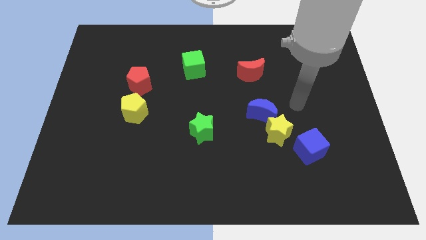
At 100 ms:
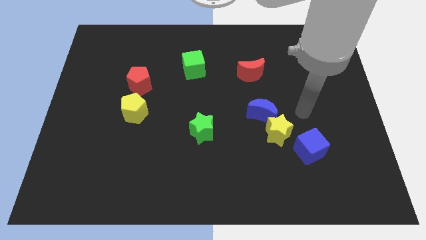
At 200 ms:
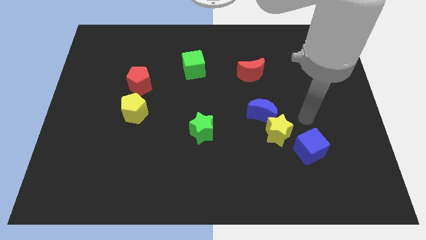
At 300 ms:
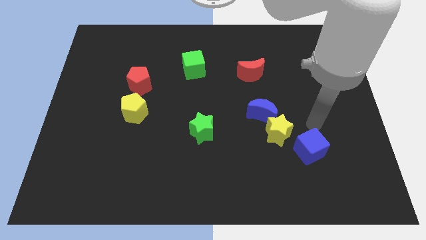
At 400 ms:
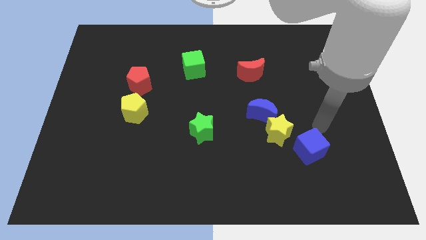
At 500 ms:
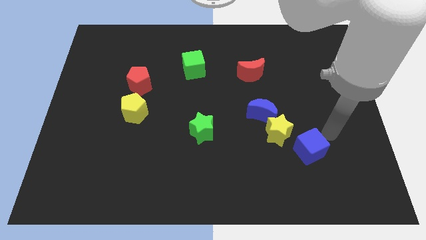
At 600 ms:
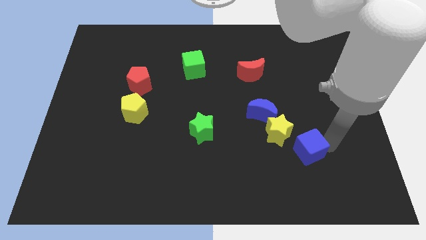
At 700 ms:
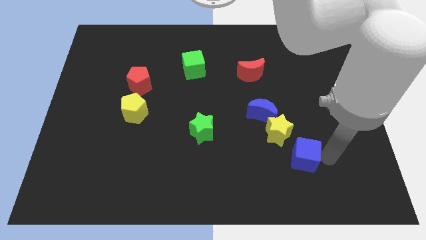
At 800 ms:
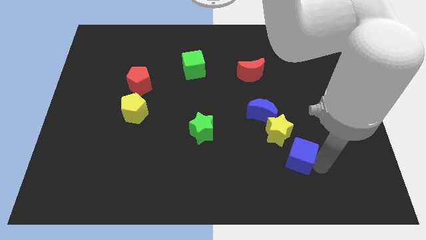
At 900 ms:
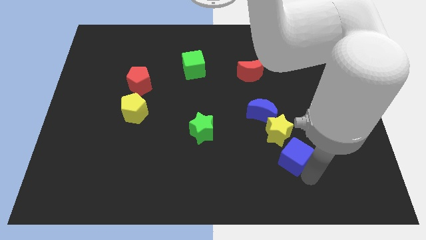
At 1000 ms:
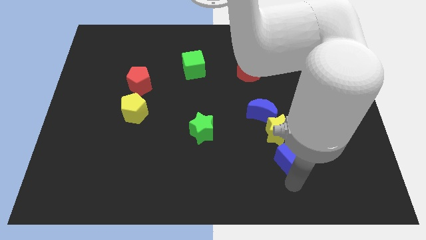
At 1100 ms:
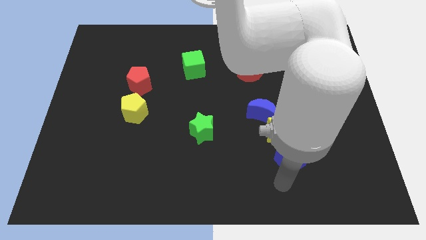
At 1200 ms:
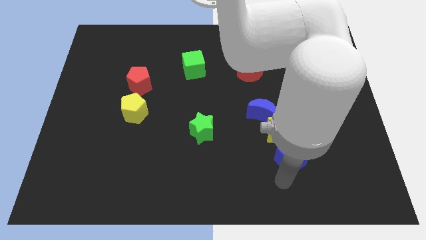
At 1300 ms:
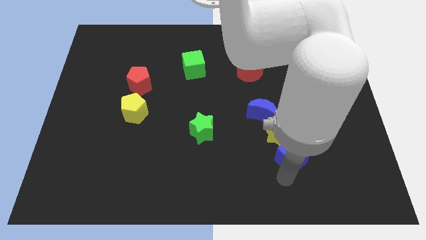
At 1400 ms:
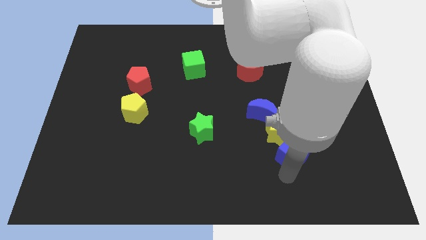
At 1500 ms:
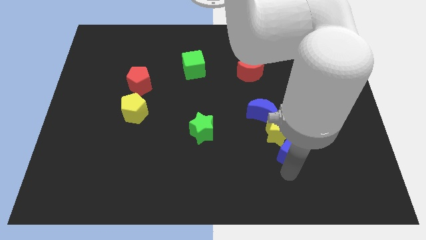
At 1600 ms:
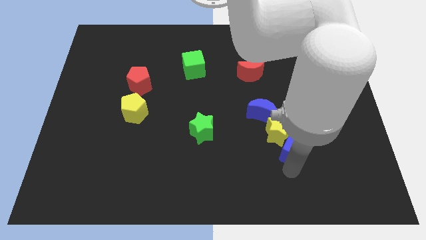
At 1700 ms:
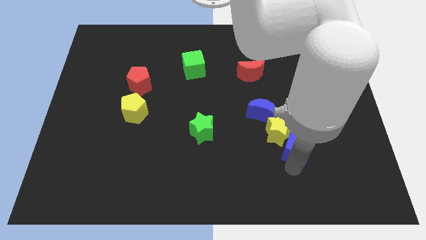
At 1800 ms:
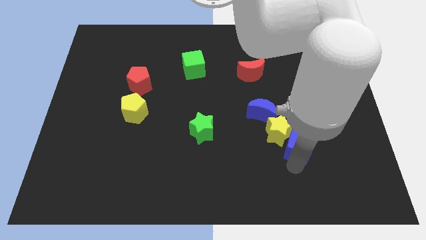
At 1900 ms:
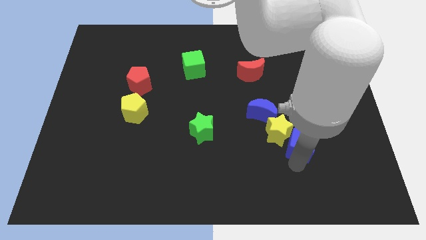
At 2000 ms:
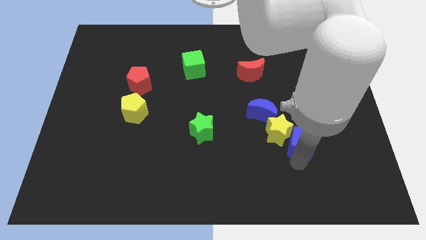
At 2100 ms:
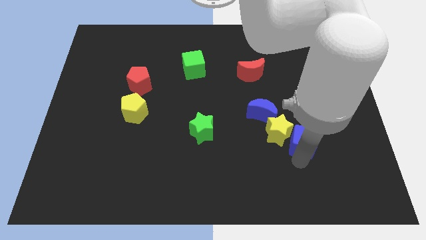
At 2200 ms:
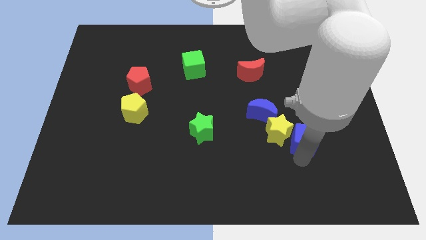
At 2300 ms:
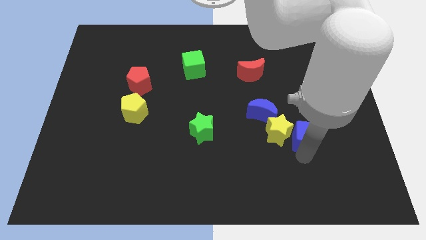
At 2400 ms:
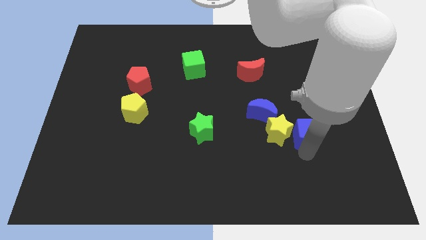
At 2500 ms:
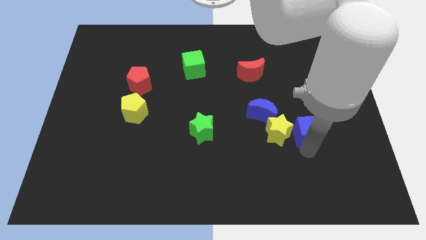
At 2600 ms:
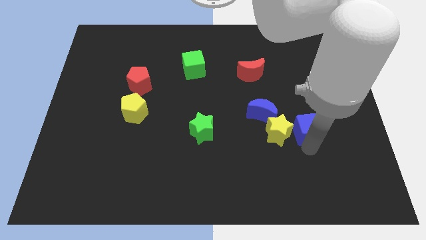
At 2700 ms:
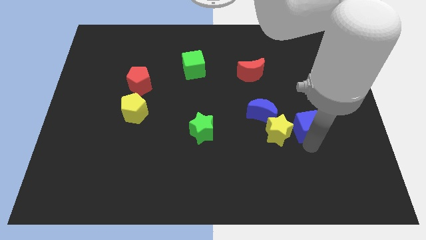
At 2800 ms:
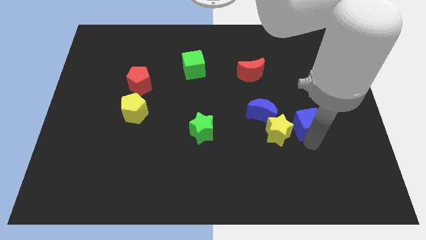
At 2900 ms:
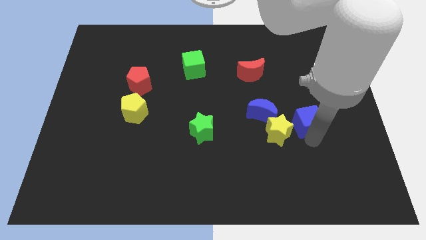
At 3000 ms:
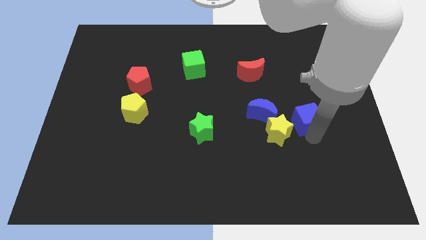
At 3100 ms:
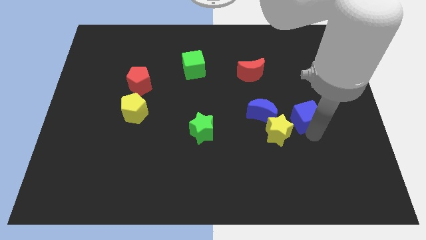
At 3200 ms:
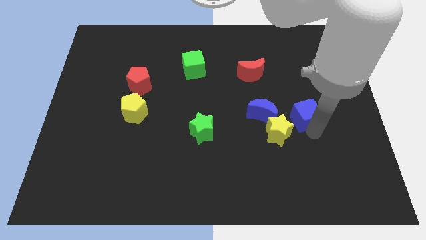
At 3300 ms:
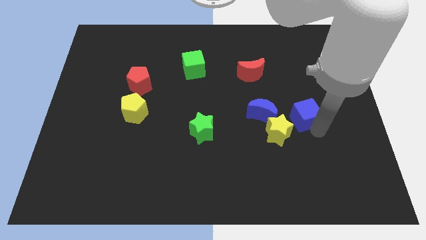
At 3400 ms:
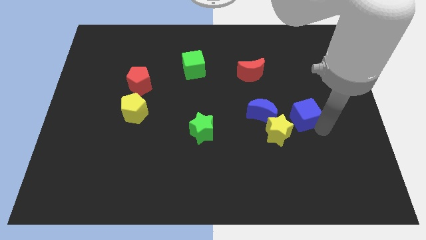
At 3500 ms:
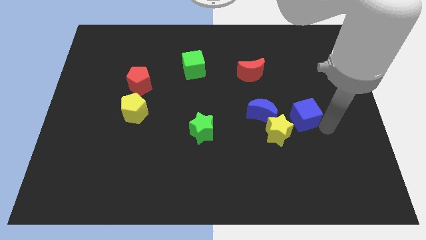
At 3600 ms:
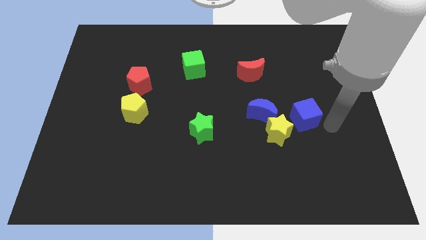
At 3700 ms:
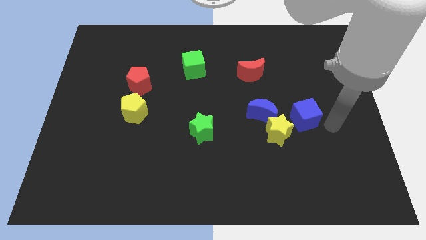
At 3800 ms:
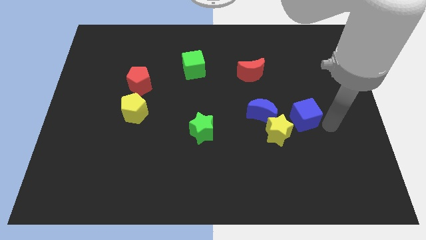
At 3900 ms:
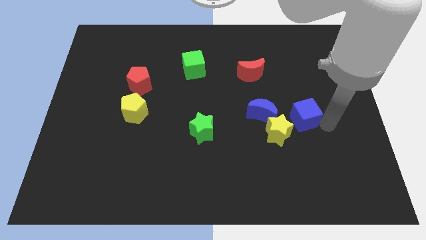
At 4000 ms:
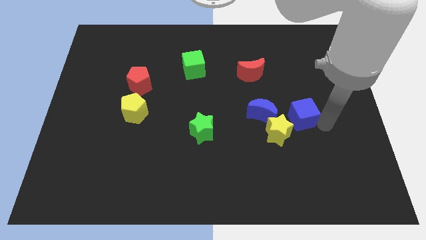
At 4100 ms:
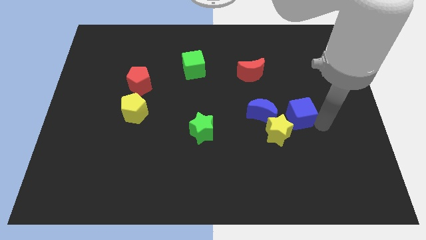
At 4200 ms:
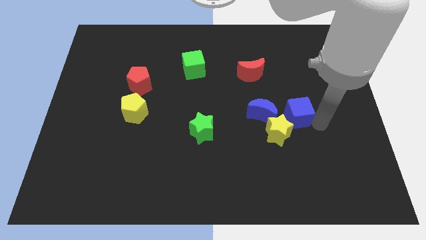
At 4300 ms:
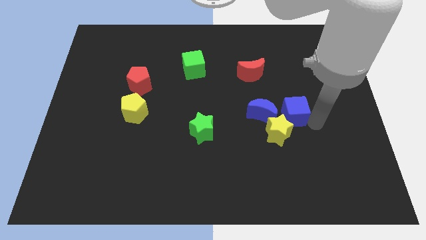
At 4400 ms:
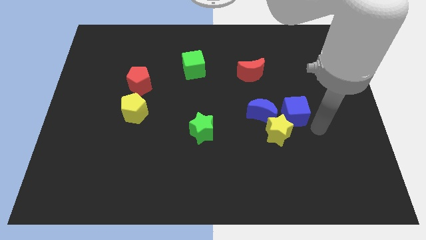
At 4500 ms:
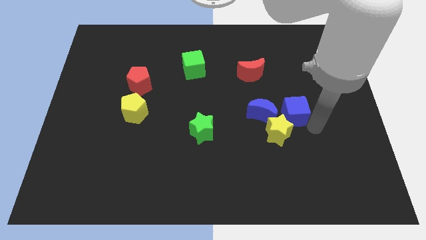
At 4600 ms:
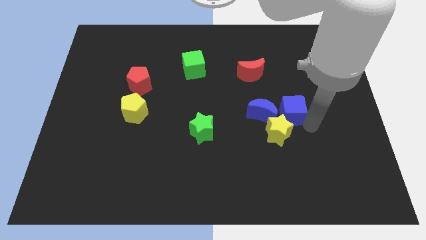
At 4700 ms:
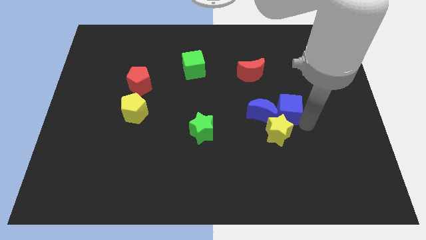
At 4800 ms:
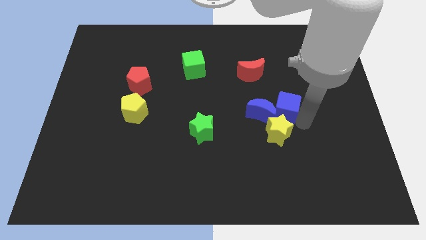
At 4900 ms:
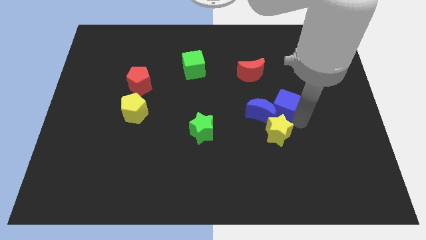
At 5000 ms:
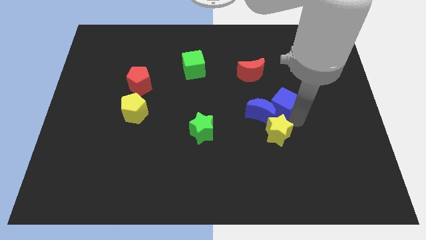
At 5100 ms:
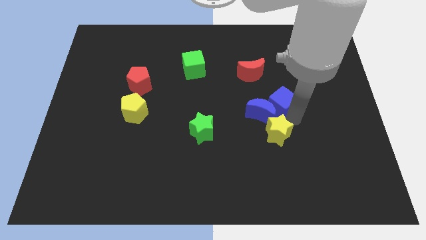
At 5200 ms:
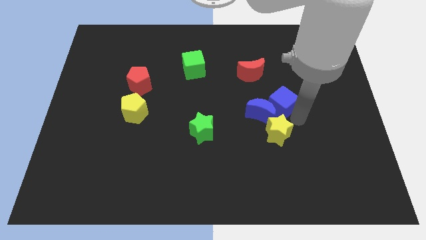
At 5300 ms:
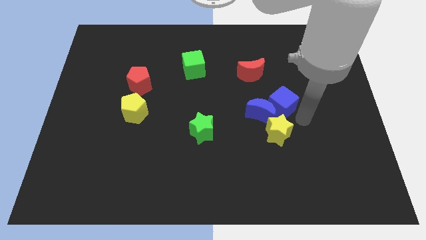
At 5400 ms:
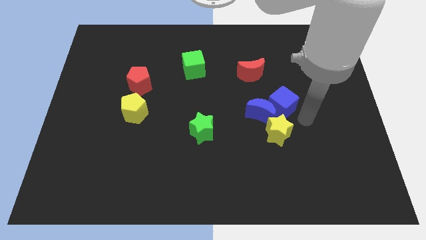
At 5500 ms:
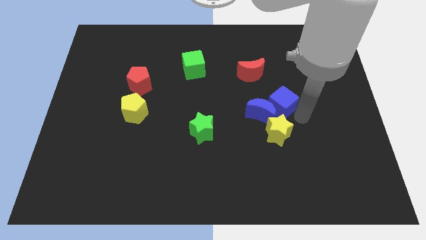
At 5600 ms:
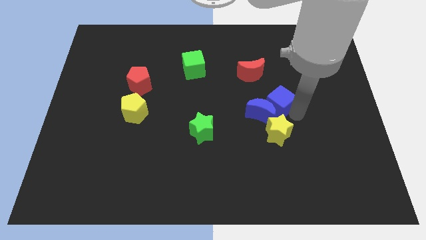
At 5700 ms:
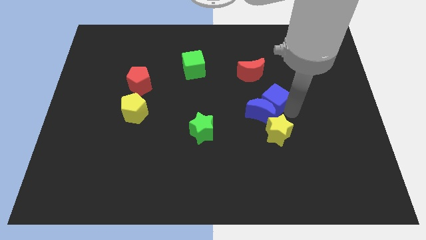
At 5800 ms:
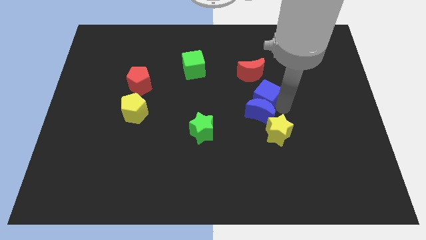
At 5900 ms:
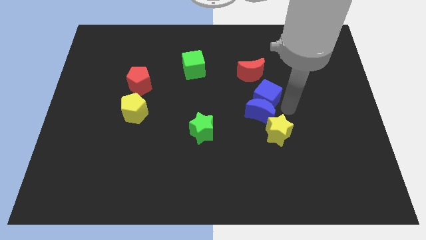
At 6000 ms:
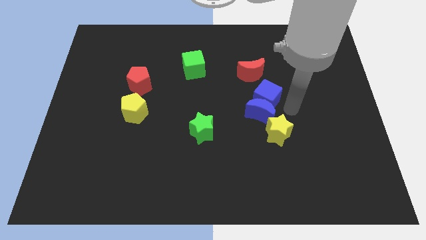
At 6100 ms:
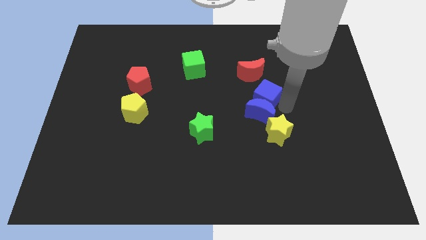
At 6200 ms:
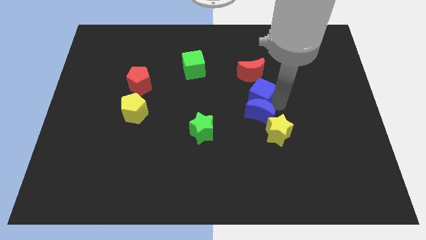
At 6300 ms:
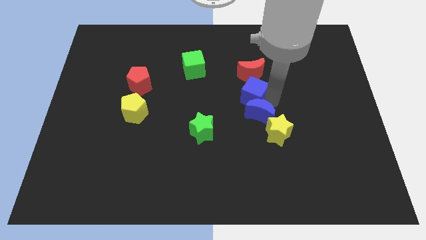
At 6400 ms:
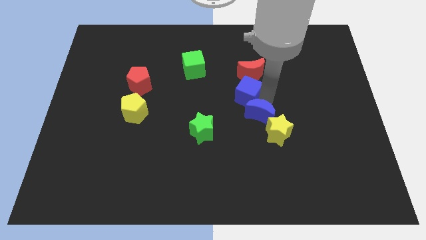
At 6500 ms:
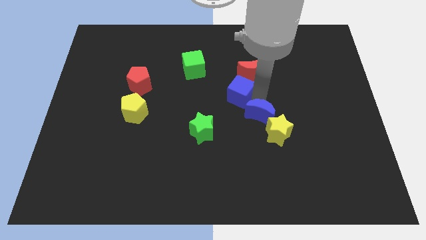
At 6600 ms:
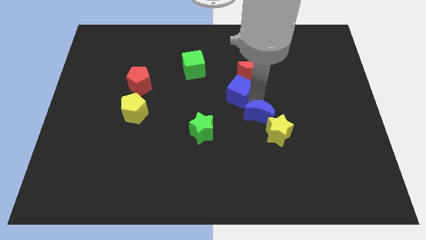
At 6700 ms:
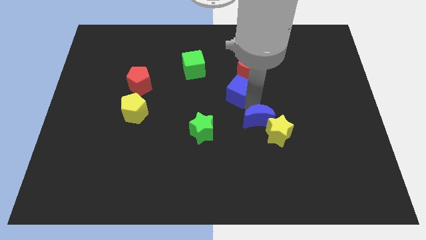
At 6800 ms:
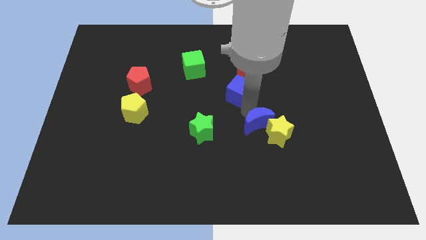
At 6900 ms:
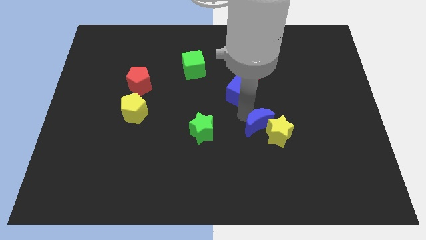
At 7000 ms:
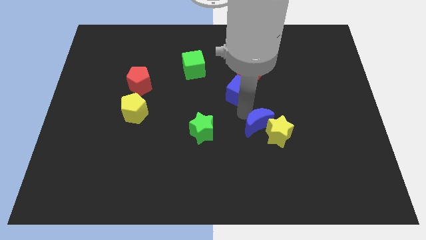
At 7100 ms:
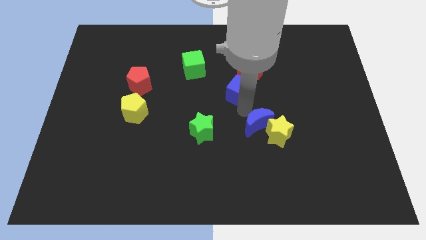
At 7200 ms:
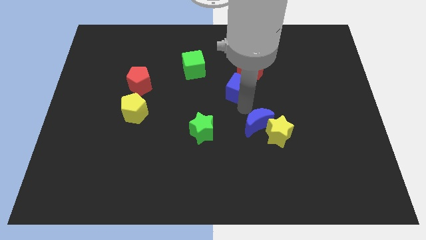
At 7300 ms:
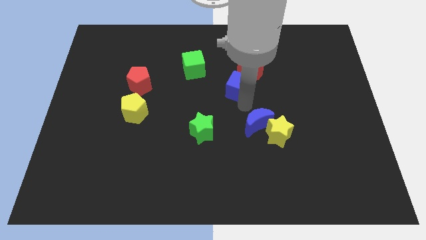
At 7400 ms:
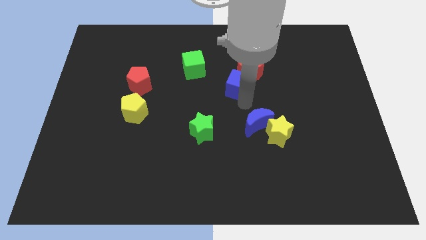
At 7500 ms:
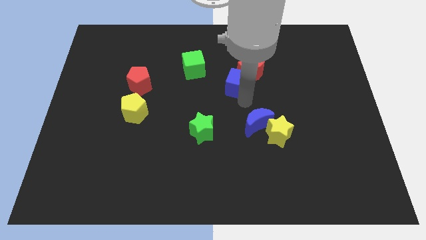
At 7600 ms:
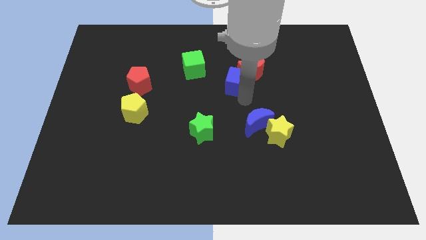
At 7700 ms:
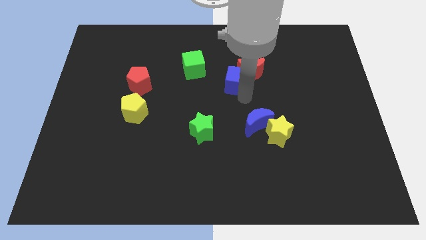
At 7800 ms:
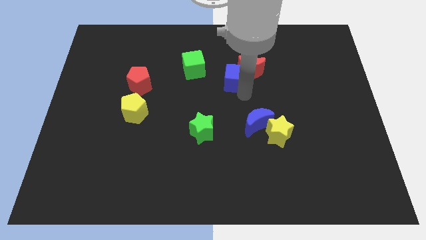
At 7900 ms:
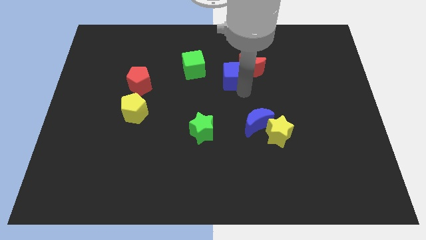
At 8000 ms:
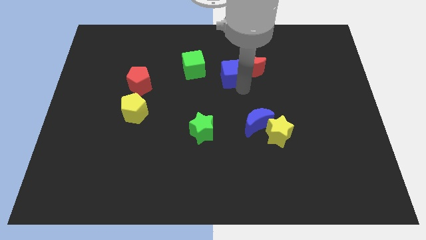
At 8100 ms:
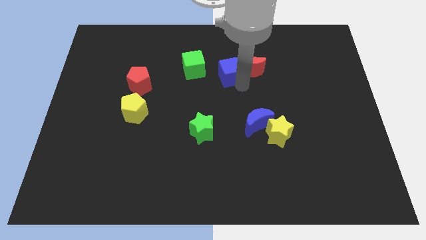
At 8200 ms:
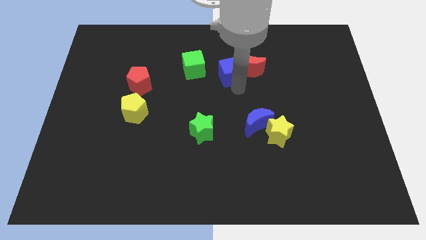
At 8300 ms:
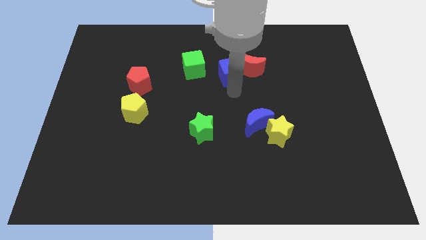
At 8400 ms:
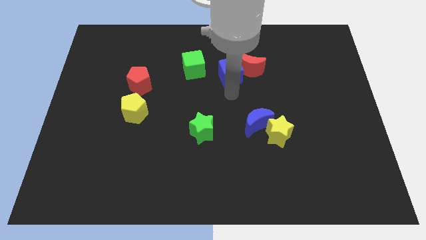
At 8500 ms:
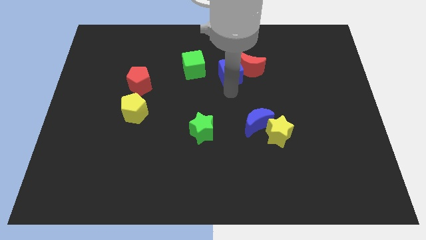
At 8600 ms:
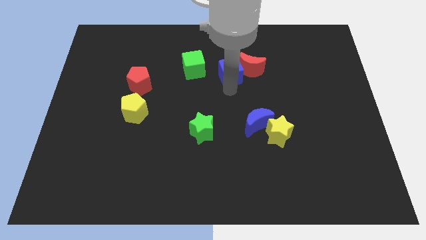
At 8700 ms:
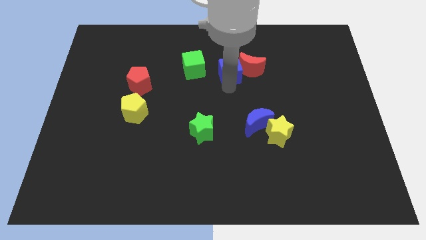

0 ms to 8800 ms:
put the blue cube diagonally up and to the left of the red moon
